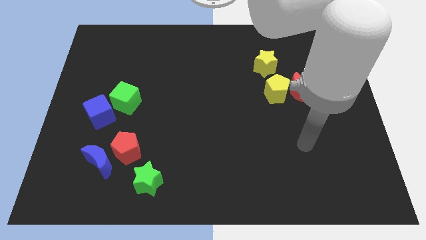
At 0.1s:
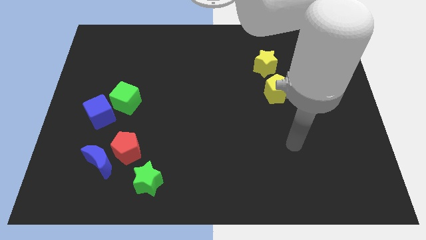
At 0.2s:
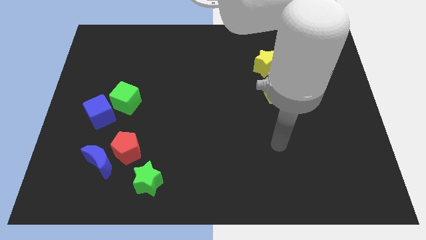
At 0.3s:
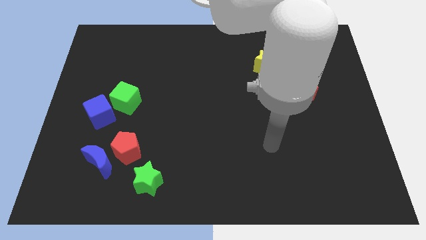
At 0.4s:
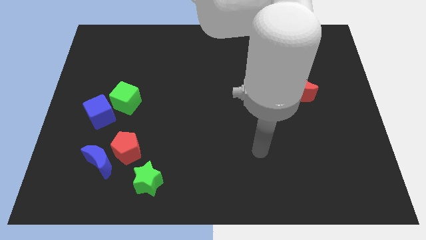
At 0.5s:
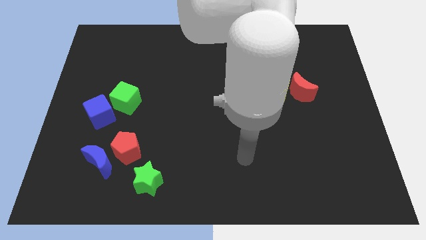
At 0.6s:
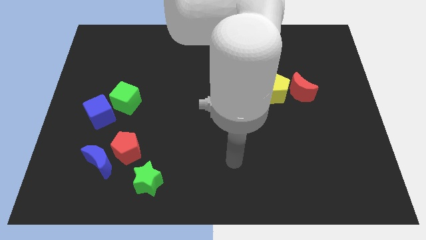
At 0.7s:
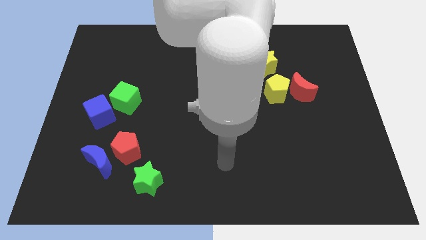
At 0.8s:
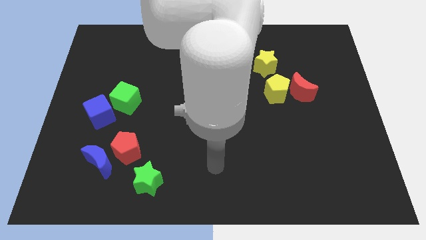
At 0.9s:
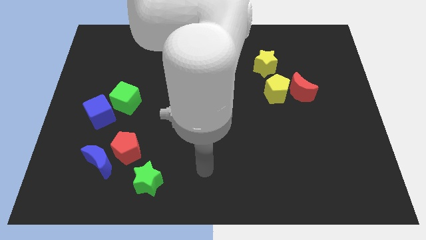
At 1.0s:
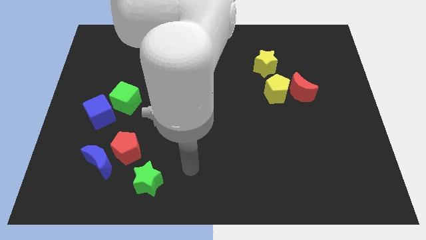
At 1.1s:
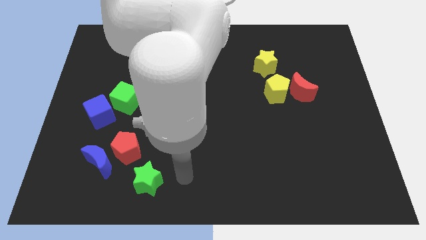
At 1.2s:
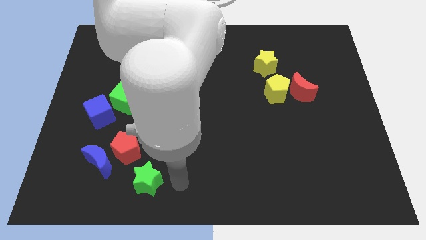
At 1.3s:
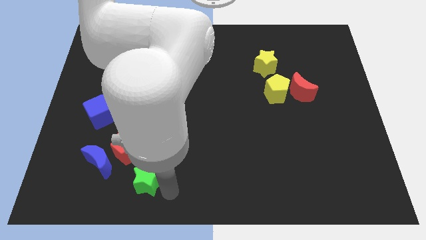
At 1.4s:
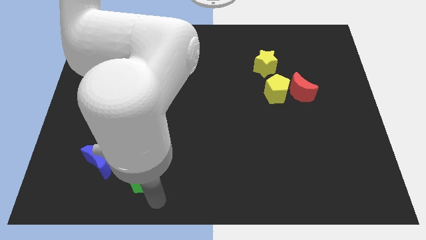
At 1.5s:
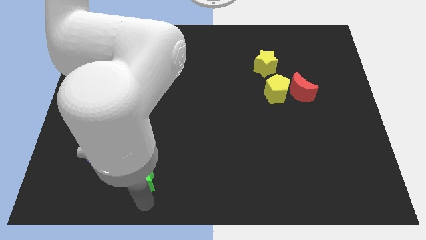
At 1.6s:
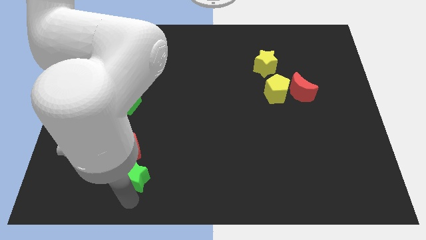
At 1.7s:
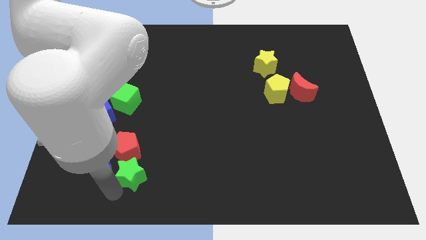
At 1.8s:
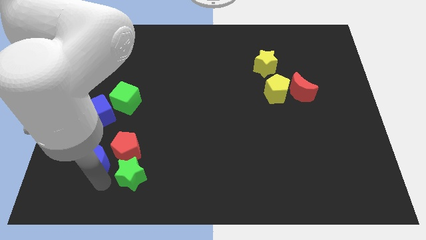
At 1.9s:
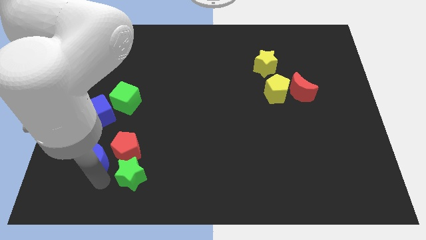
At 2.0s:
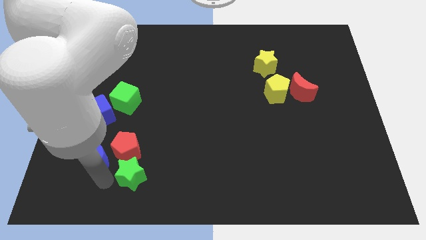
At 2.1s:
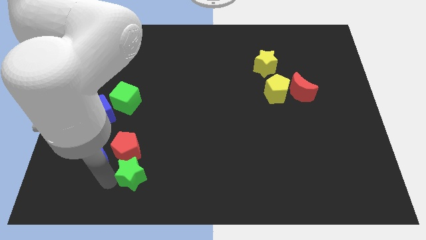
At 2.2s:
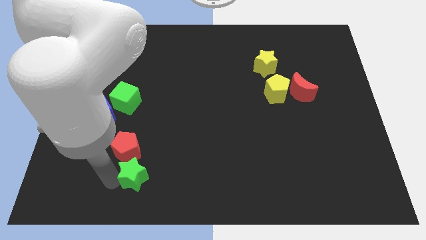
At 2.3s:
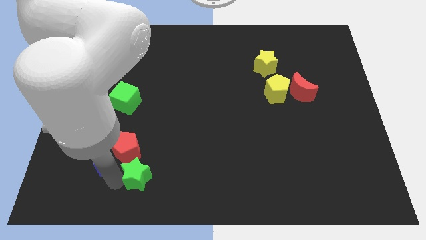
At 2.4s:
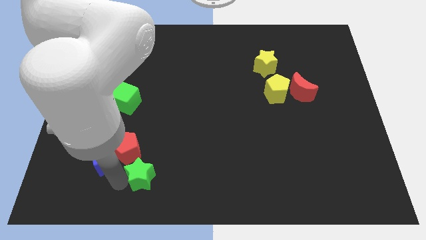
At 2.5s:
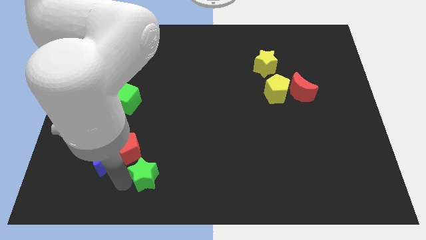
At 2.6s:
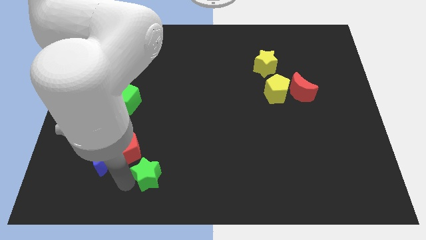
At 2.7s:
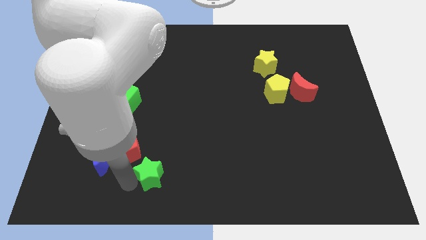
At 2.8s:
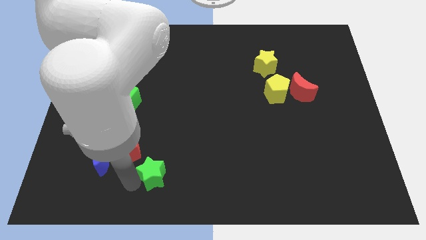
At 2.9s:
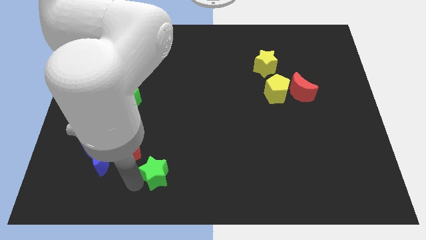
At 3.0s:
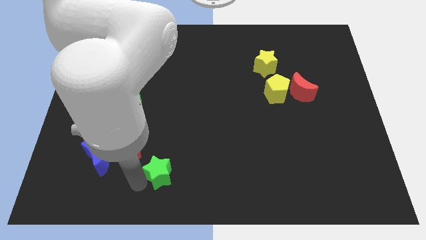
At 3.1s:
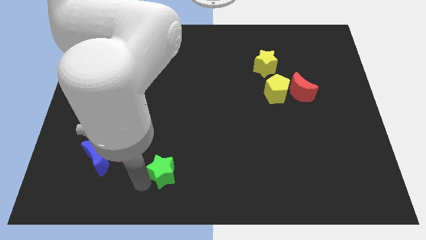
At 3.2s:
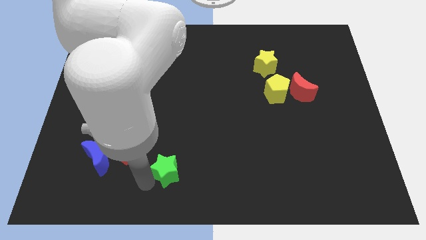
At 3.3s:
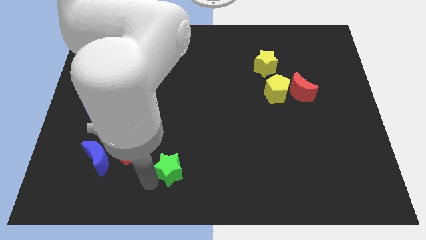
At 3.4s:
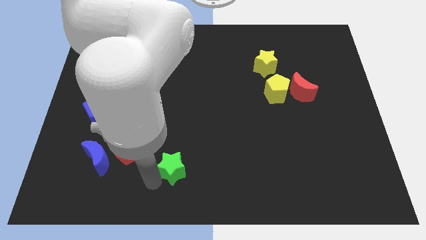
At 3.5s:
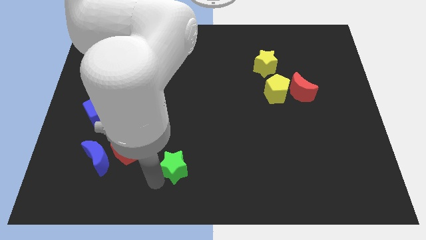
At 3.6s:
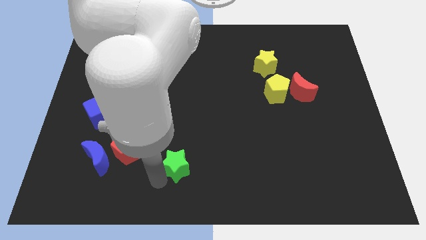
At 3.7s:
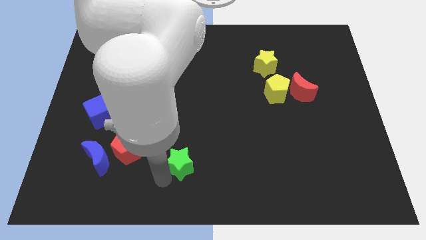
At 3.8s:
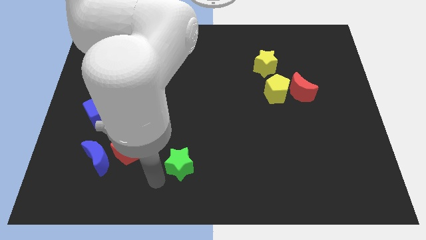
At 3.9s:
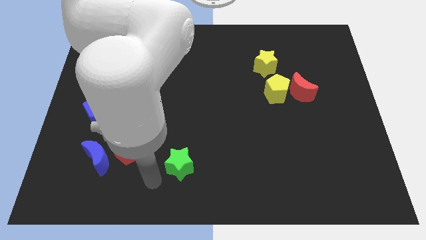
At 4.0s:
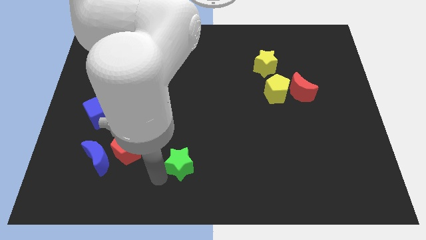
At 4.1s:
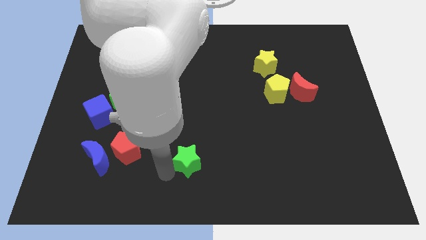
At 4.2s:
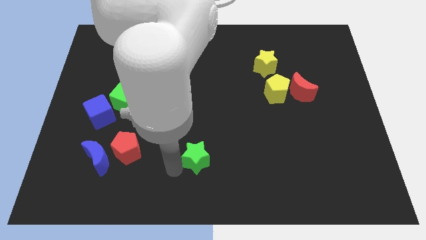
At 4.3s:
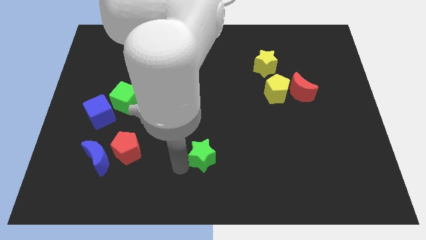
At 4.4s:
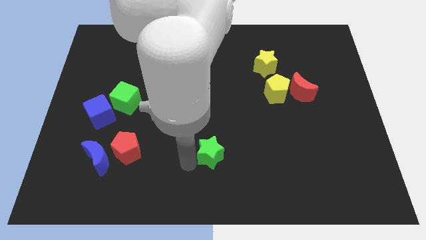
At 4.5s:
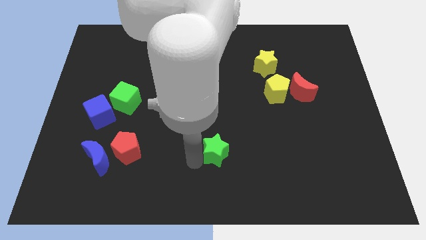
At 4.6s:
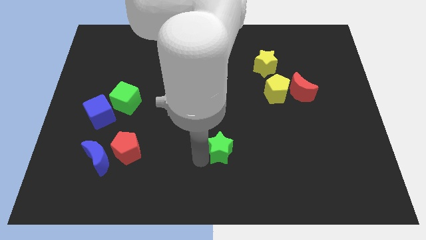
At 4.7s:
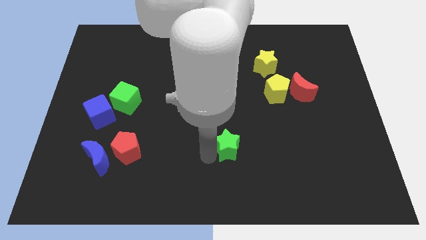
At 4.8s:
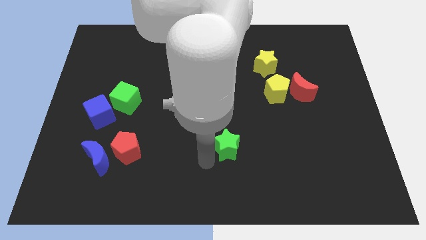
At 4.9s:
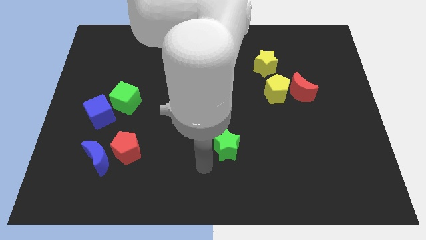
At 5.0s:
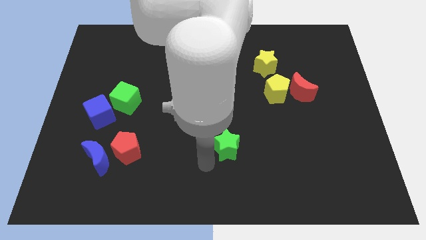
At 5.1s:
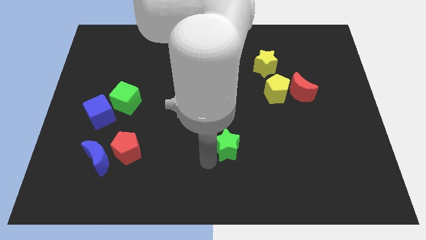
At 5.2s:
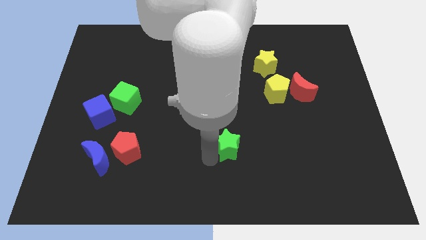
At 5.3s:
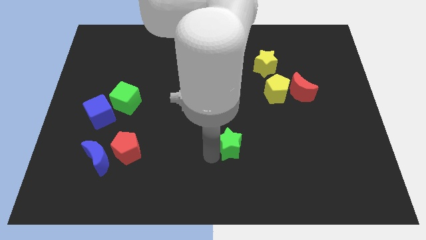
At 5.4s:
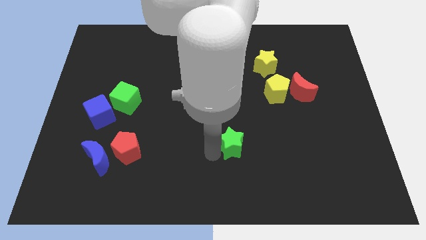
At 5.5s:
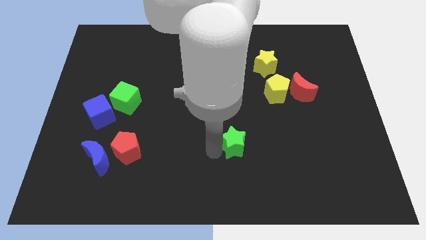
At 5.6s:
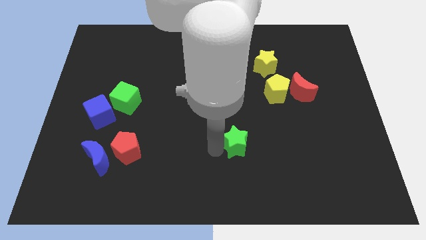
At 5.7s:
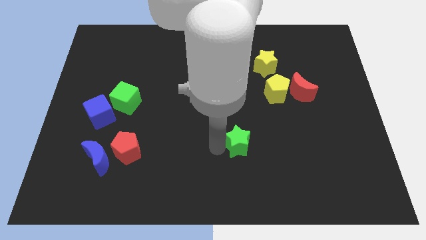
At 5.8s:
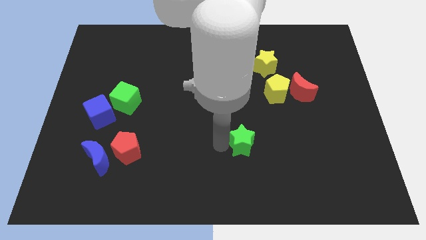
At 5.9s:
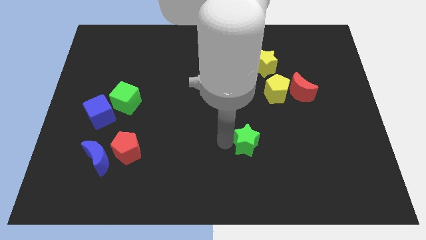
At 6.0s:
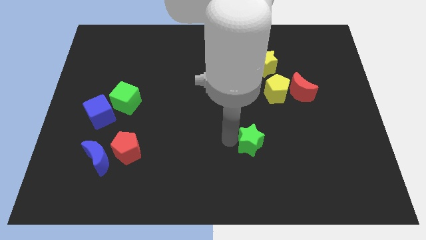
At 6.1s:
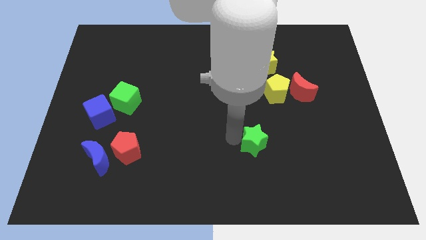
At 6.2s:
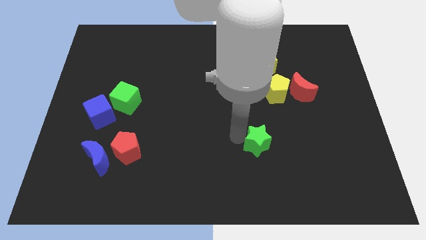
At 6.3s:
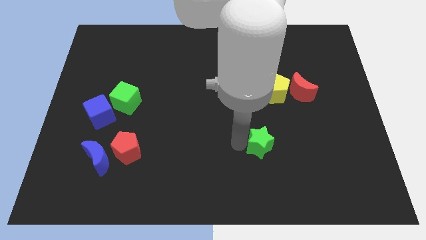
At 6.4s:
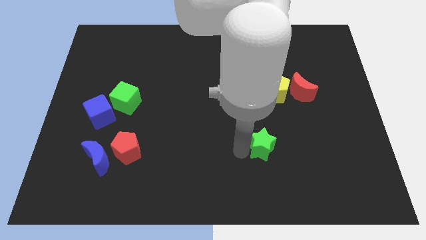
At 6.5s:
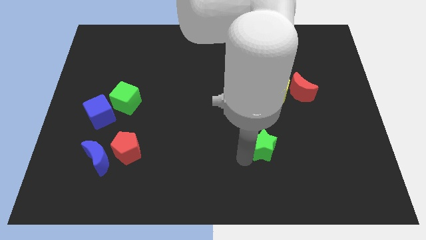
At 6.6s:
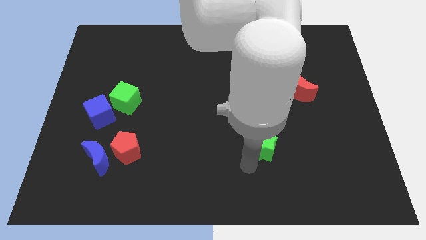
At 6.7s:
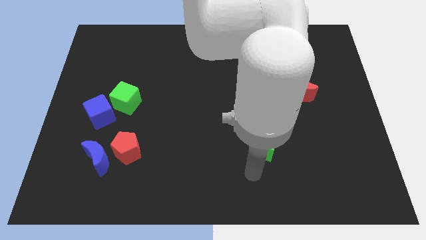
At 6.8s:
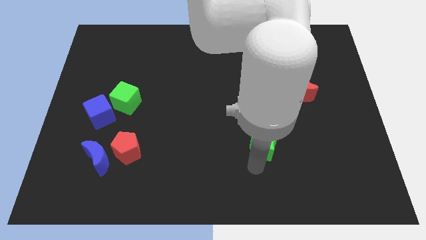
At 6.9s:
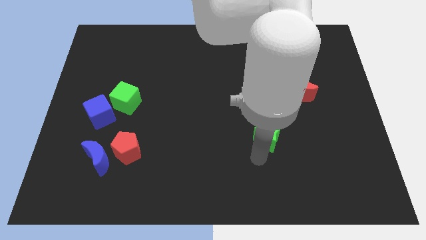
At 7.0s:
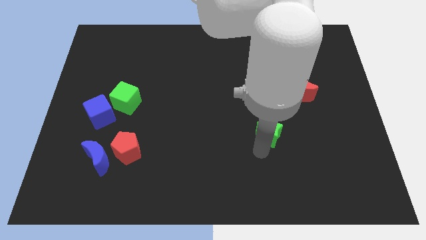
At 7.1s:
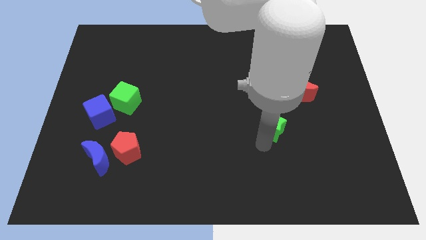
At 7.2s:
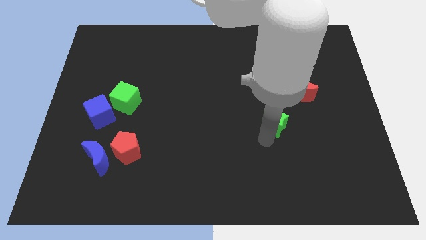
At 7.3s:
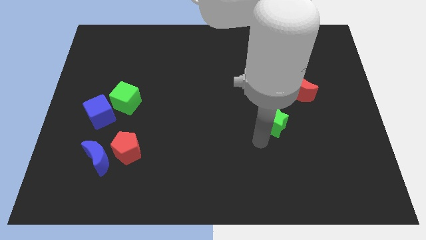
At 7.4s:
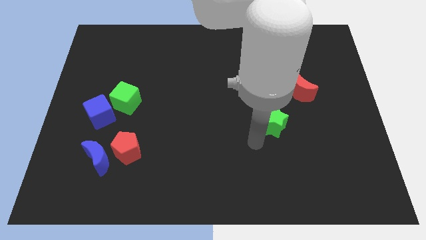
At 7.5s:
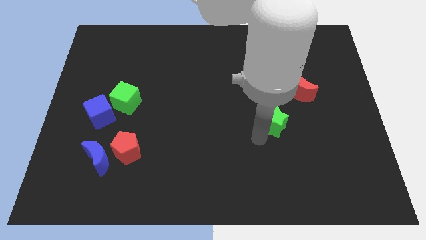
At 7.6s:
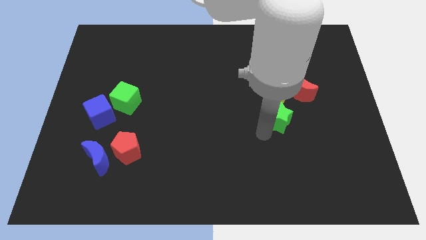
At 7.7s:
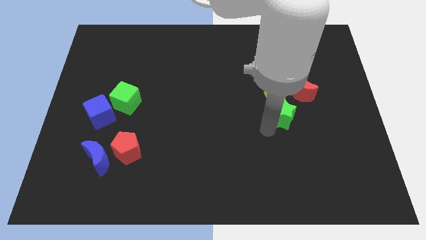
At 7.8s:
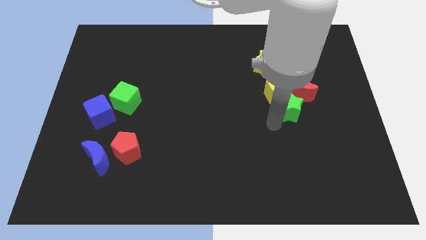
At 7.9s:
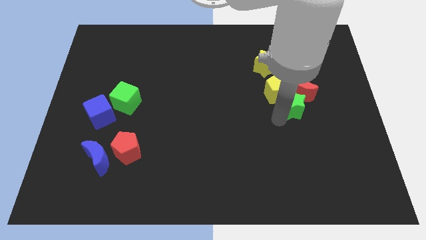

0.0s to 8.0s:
push the green star towards the red moon
